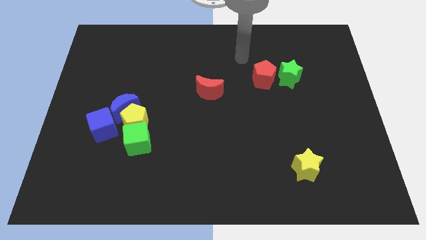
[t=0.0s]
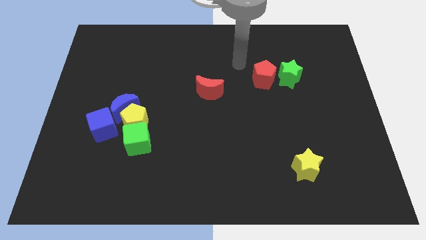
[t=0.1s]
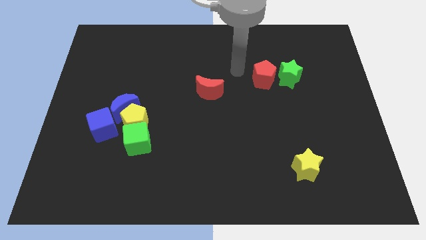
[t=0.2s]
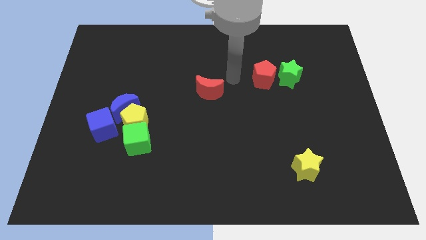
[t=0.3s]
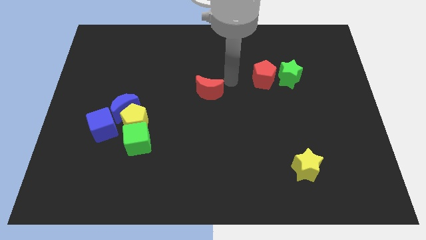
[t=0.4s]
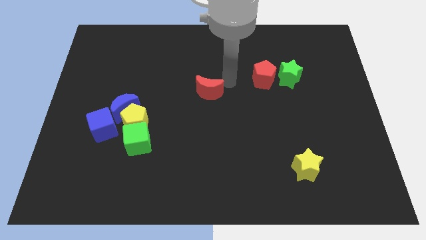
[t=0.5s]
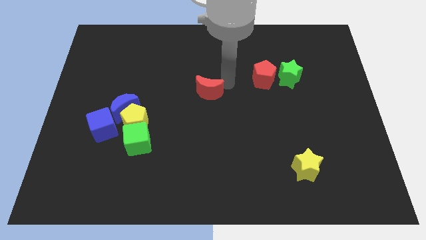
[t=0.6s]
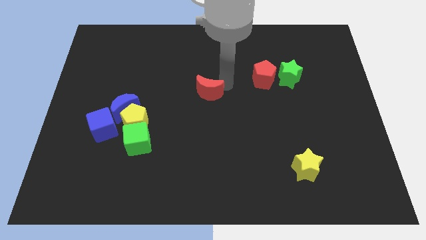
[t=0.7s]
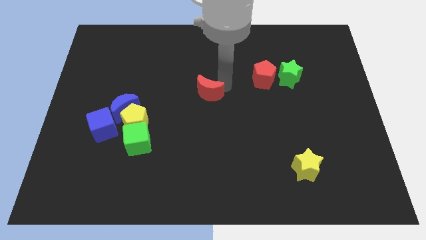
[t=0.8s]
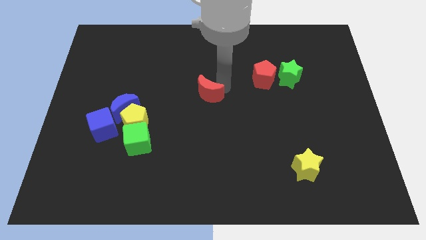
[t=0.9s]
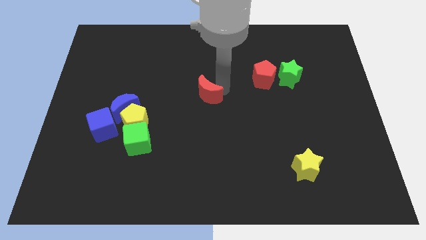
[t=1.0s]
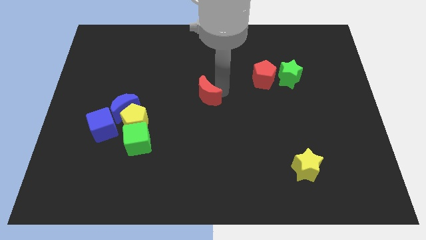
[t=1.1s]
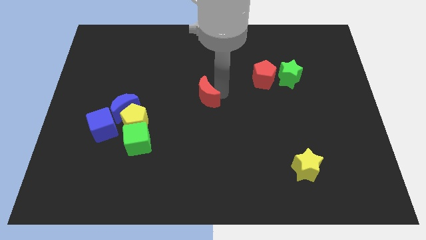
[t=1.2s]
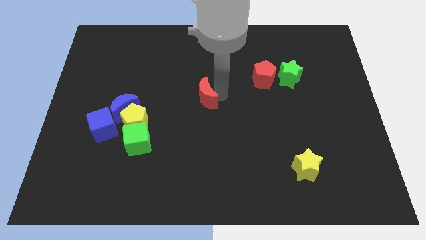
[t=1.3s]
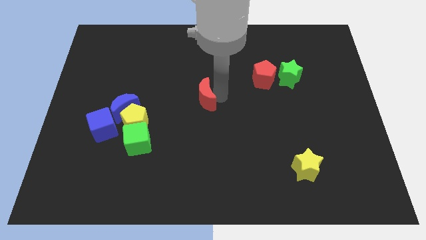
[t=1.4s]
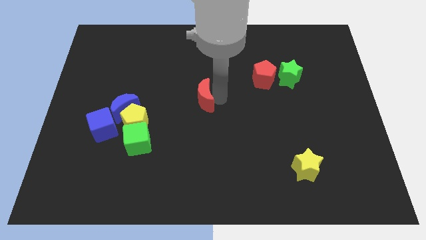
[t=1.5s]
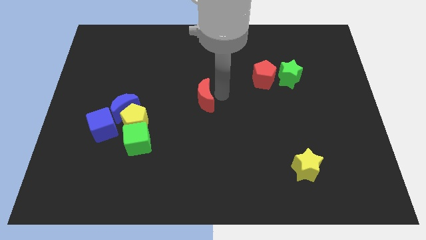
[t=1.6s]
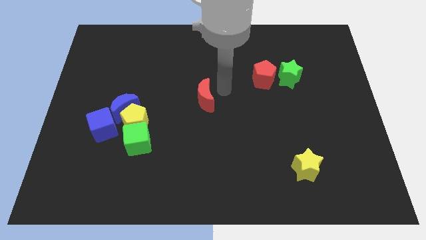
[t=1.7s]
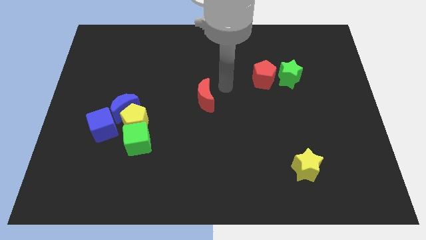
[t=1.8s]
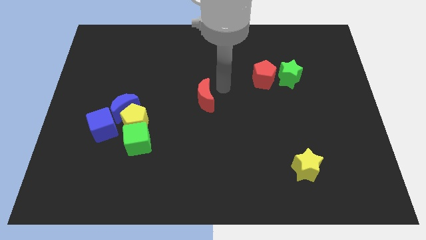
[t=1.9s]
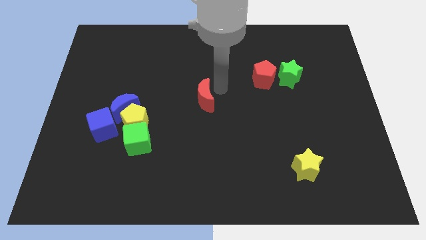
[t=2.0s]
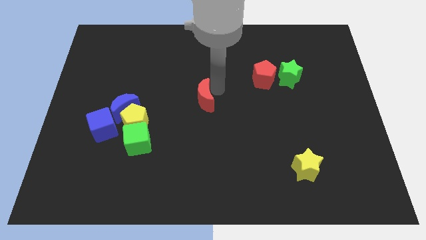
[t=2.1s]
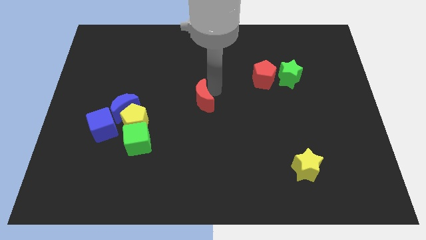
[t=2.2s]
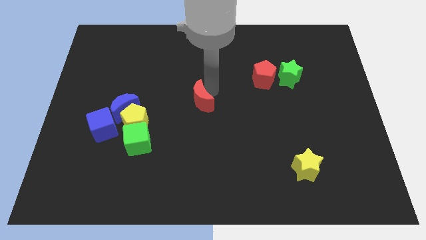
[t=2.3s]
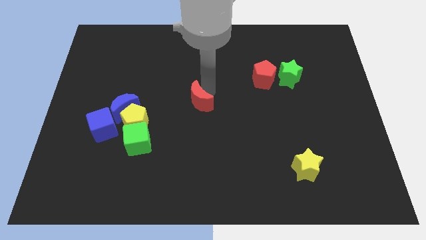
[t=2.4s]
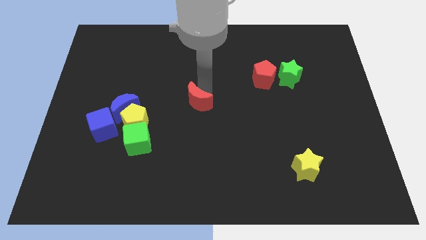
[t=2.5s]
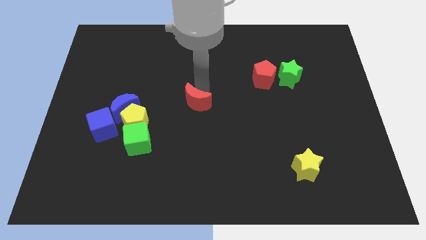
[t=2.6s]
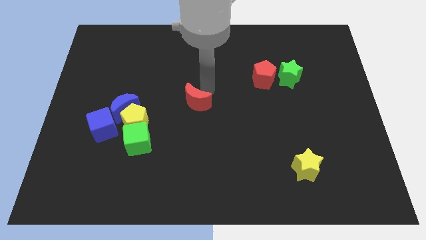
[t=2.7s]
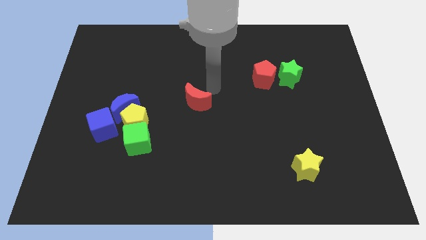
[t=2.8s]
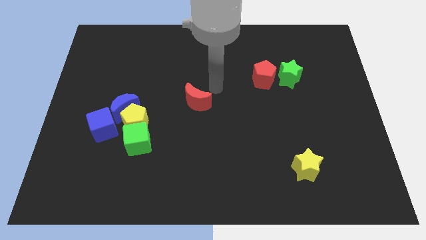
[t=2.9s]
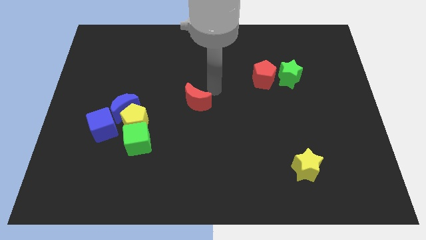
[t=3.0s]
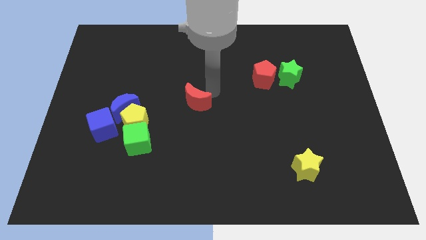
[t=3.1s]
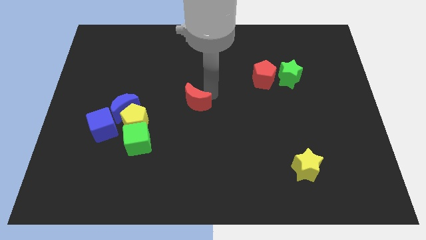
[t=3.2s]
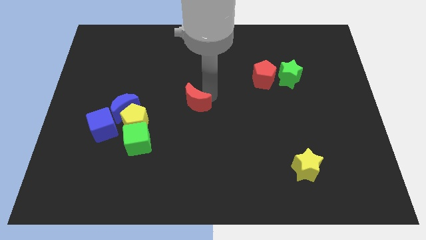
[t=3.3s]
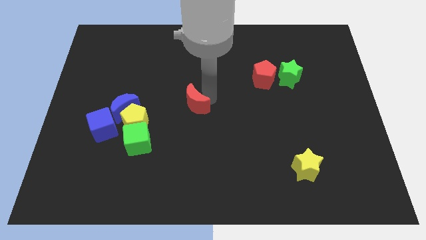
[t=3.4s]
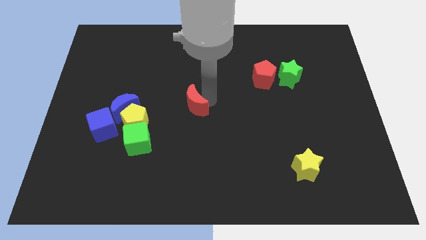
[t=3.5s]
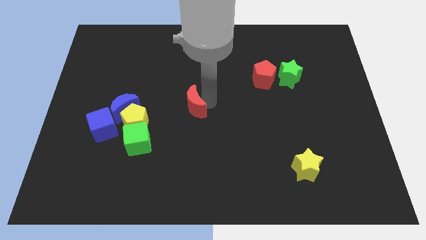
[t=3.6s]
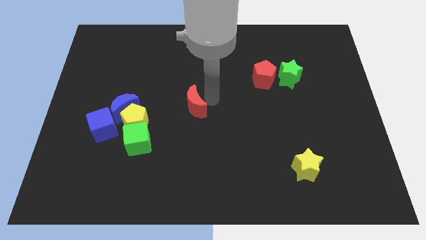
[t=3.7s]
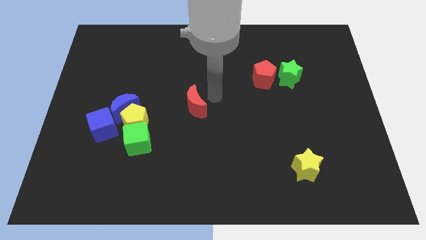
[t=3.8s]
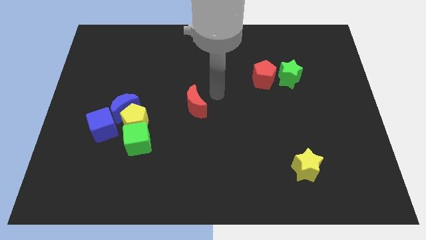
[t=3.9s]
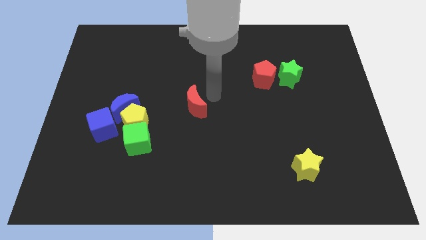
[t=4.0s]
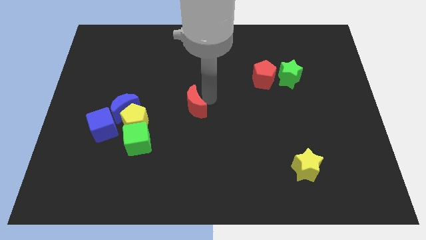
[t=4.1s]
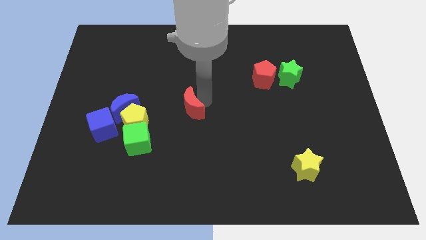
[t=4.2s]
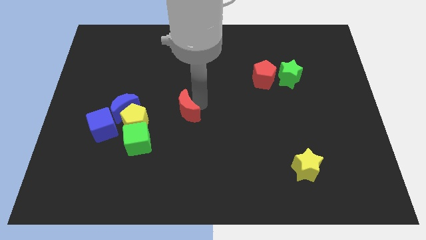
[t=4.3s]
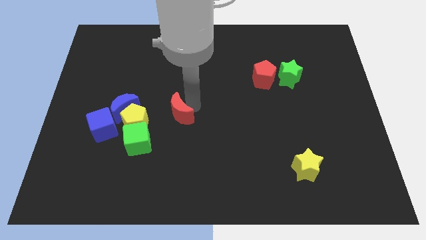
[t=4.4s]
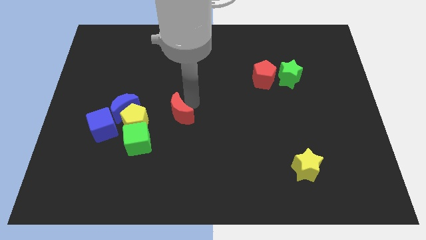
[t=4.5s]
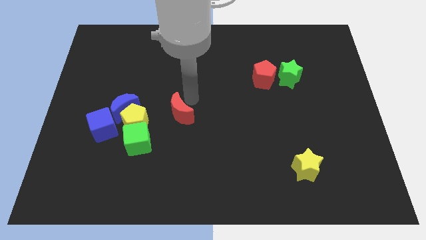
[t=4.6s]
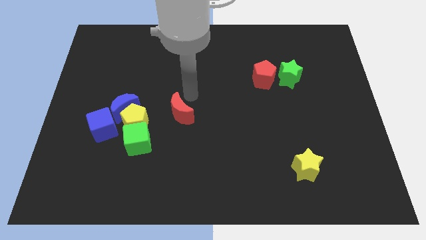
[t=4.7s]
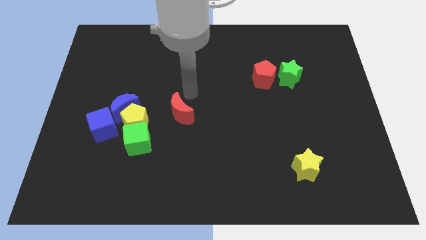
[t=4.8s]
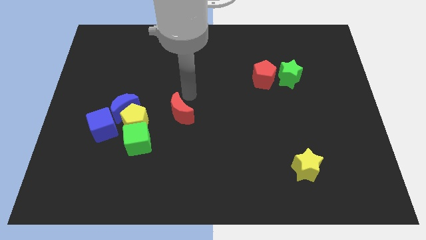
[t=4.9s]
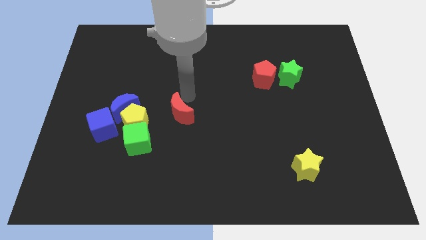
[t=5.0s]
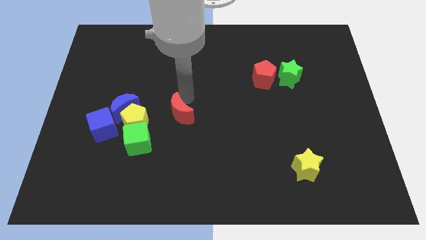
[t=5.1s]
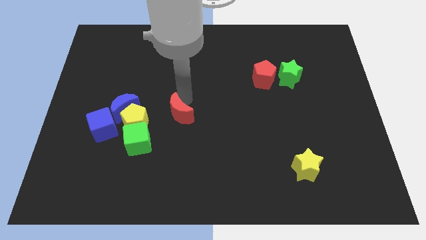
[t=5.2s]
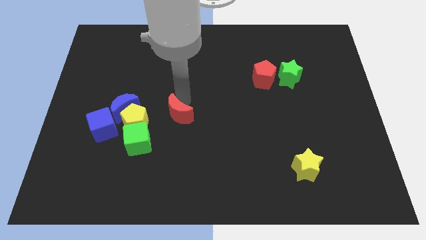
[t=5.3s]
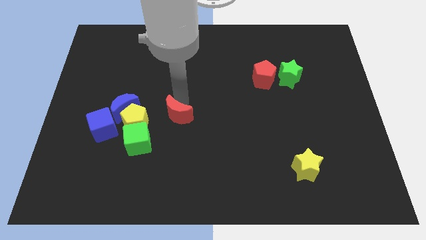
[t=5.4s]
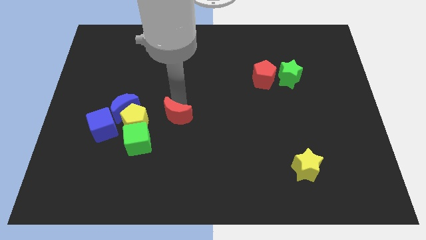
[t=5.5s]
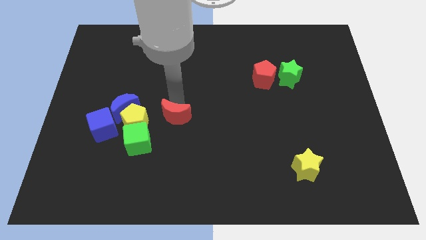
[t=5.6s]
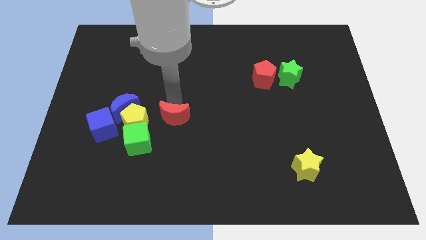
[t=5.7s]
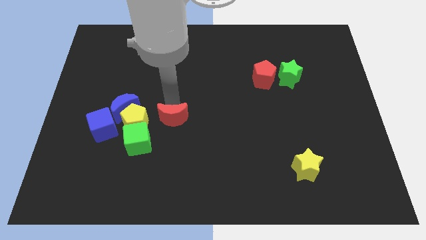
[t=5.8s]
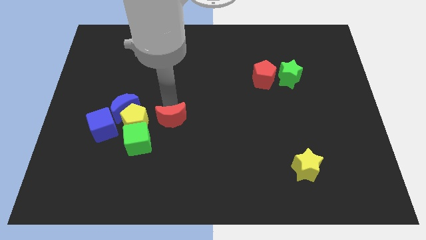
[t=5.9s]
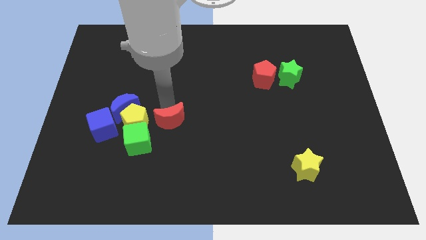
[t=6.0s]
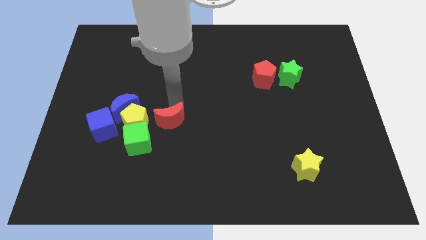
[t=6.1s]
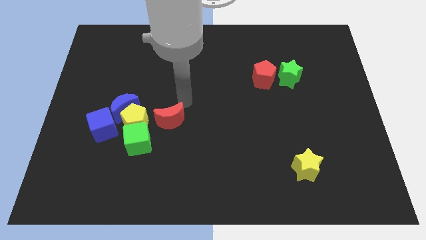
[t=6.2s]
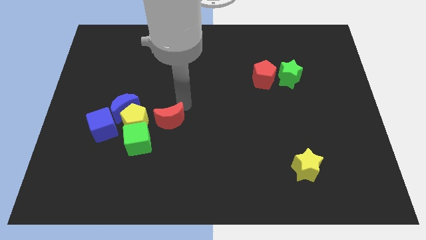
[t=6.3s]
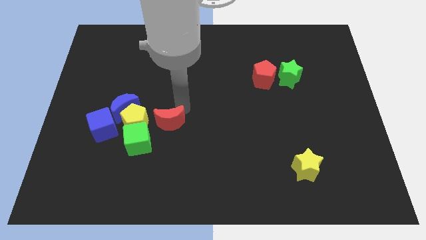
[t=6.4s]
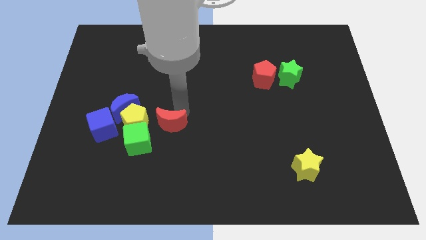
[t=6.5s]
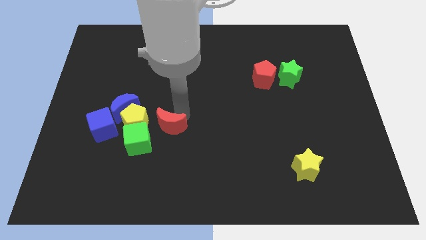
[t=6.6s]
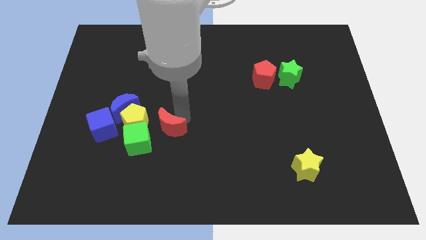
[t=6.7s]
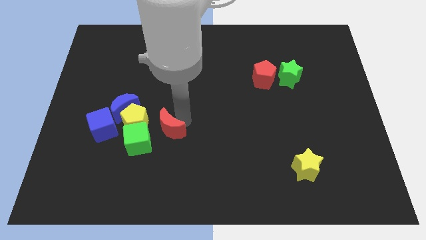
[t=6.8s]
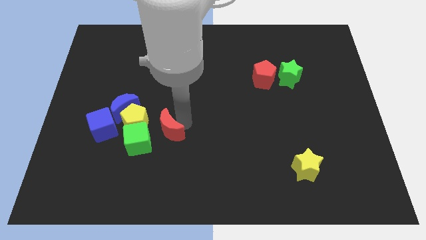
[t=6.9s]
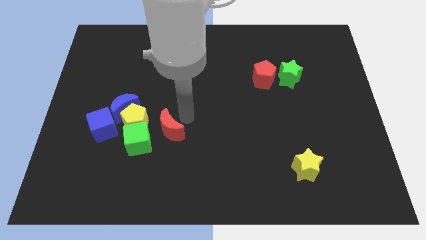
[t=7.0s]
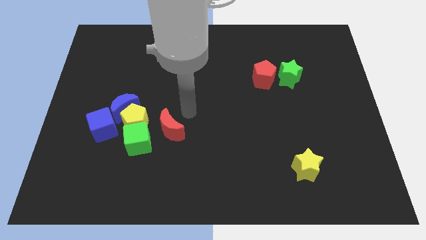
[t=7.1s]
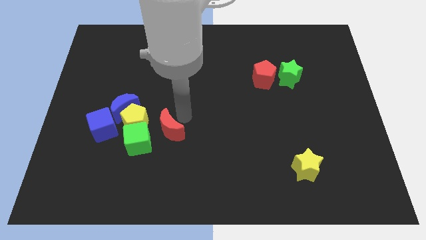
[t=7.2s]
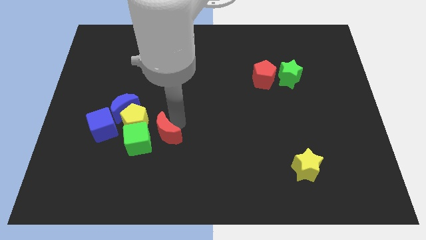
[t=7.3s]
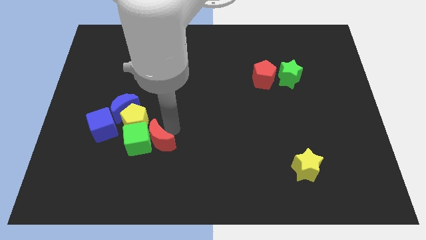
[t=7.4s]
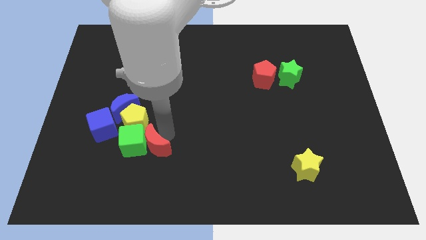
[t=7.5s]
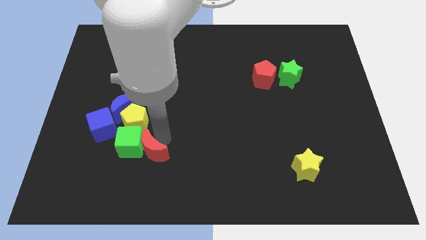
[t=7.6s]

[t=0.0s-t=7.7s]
push the red moon downwards and to the left
